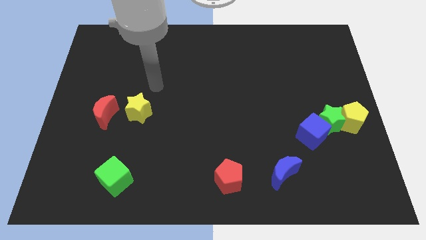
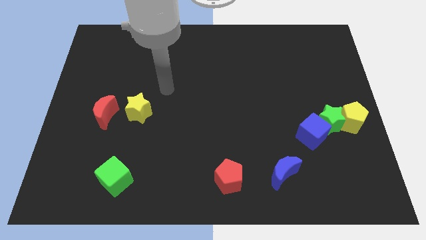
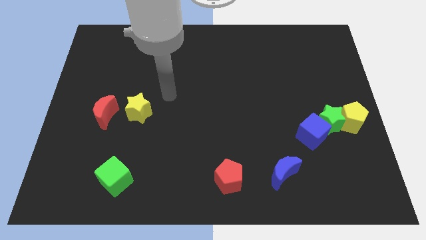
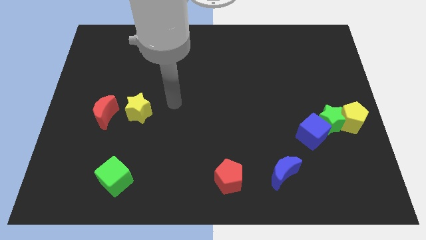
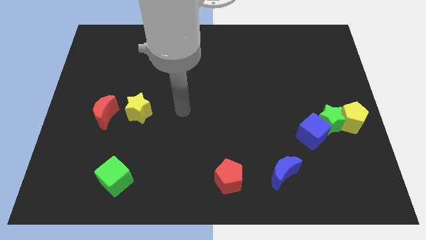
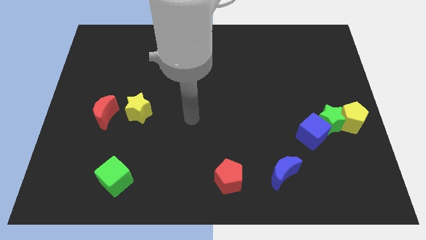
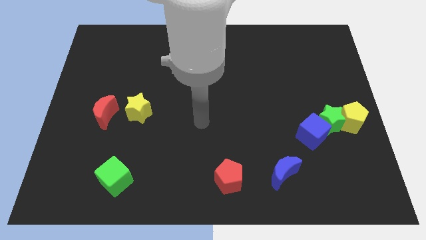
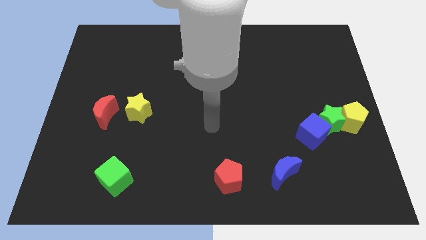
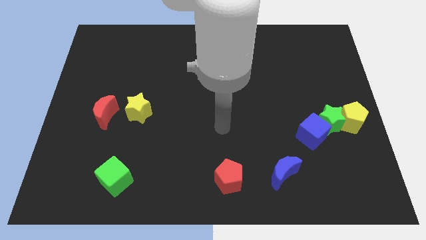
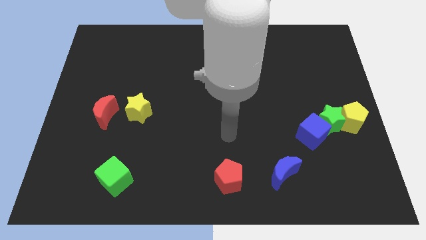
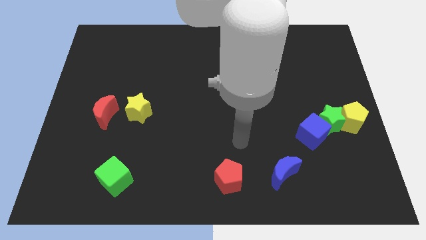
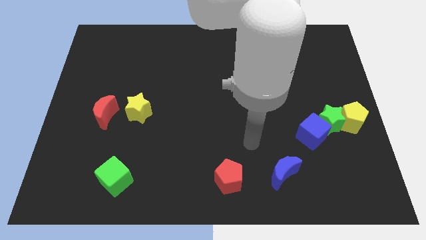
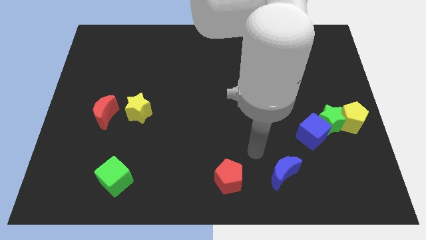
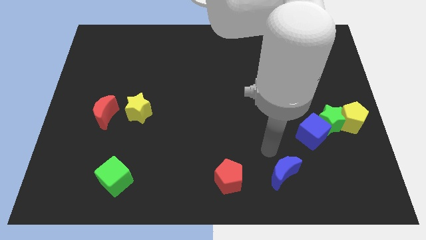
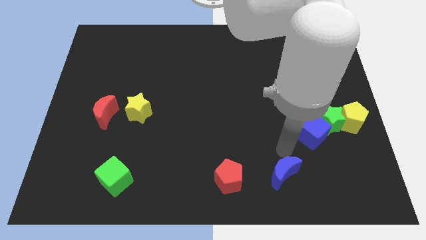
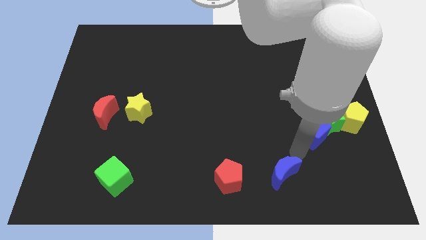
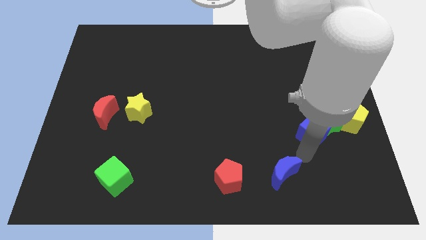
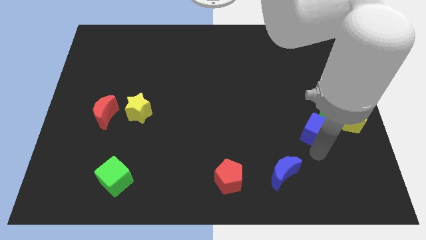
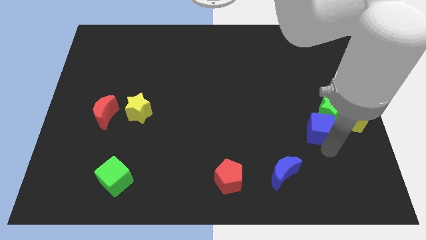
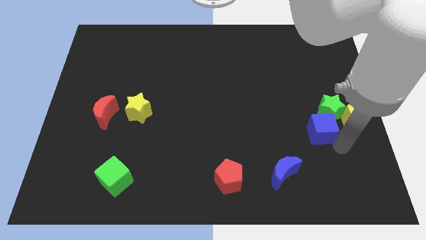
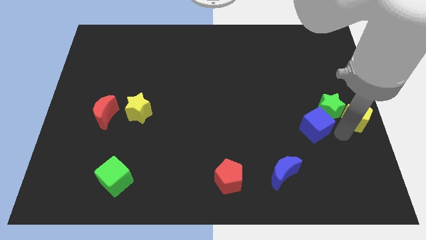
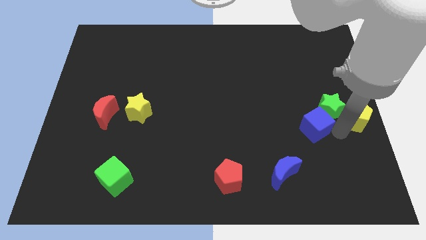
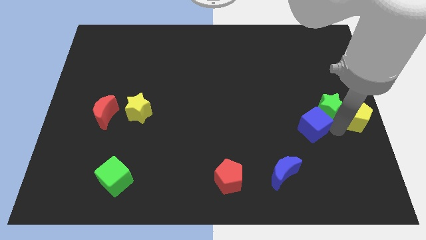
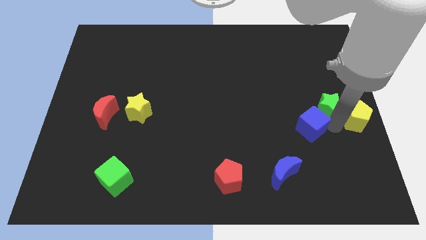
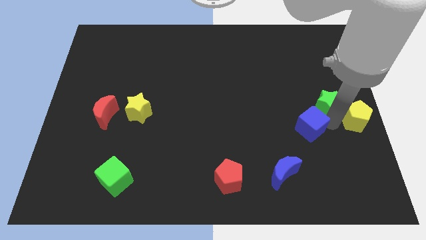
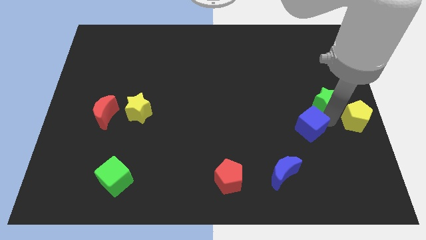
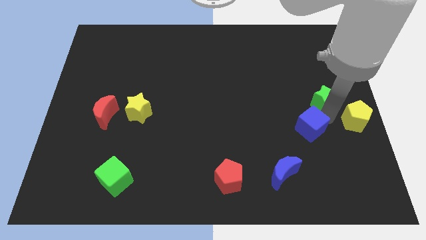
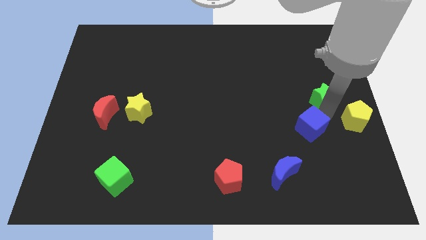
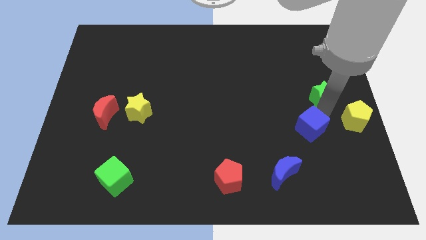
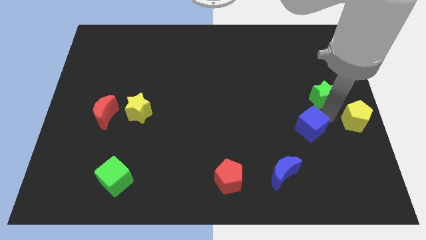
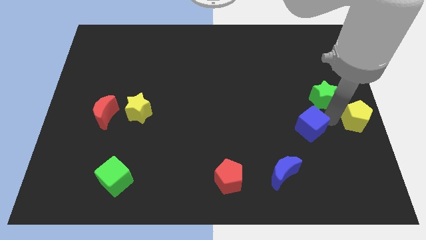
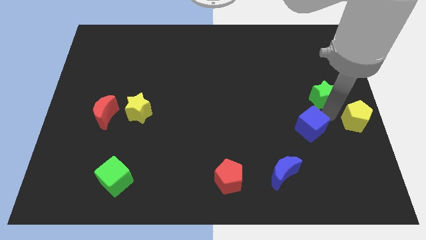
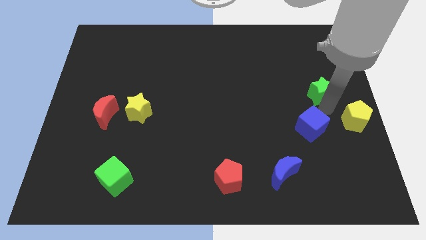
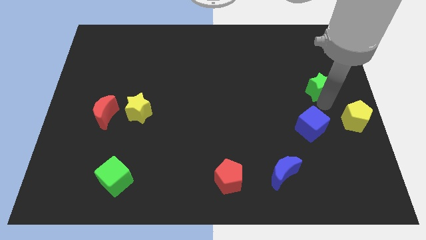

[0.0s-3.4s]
pull the green star apart from the yellow pentagon and blue cube

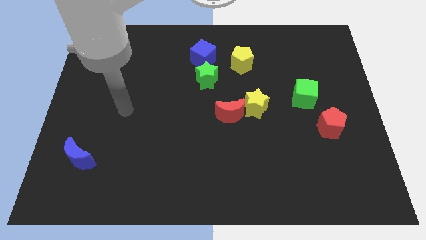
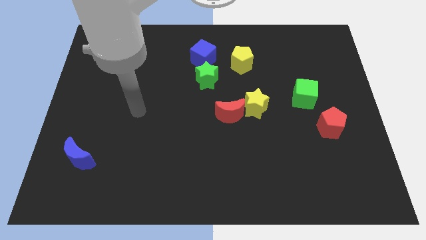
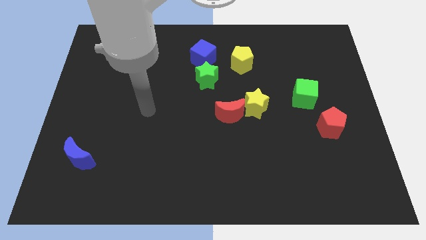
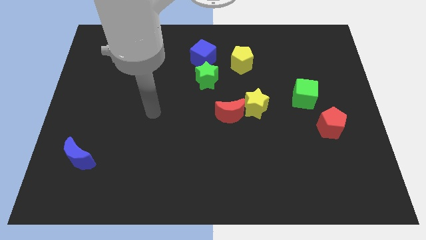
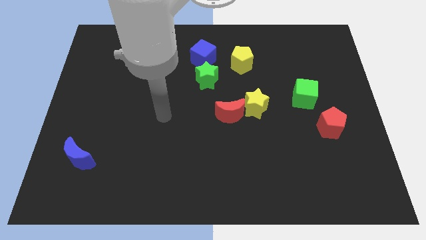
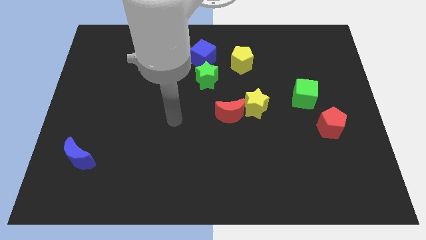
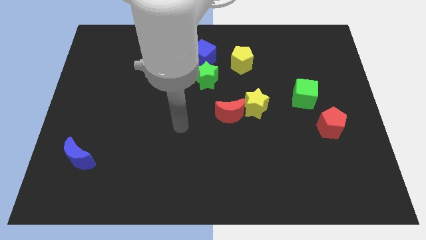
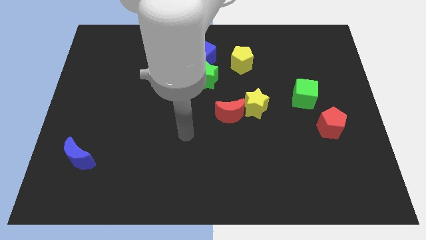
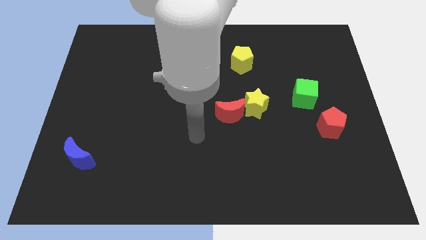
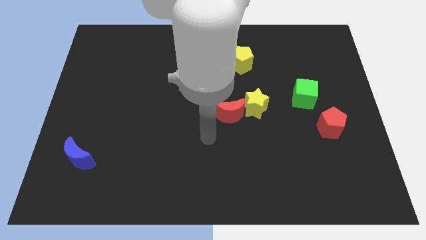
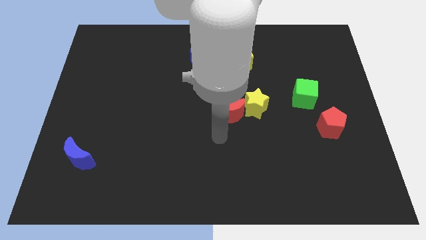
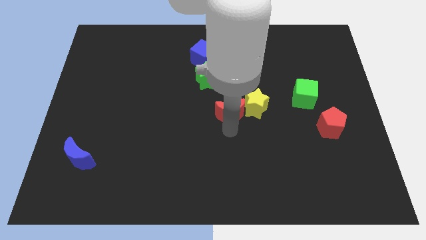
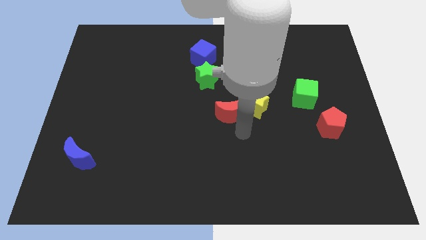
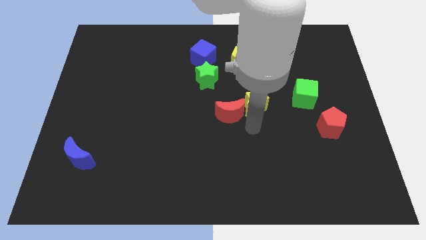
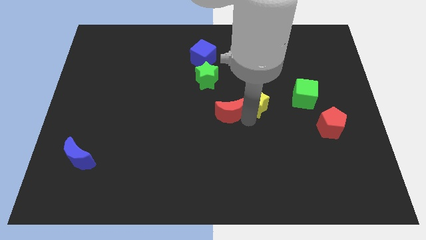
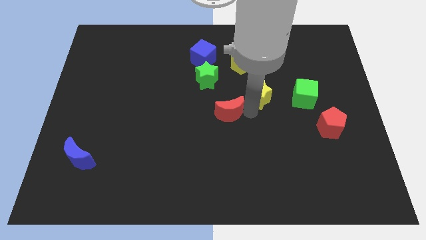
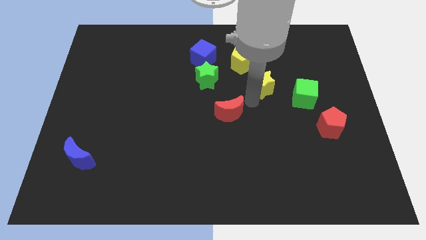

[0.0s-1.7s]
move the red moon away from the yellow star

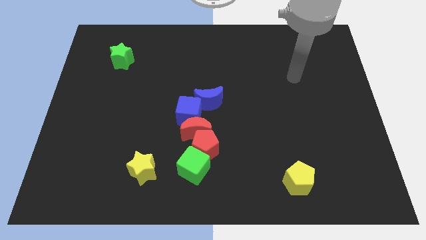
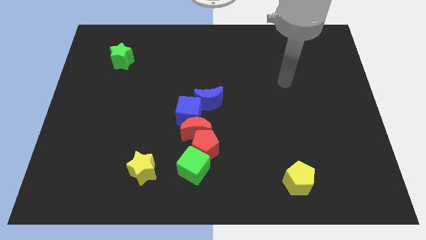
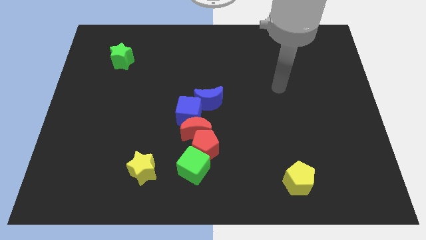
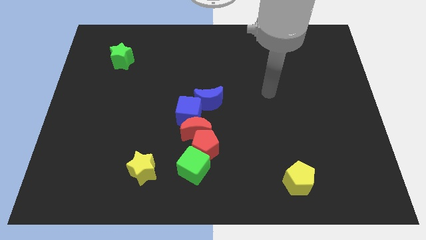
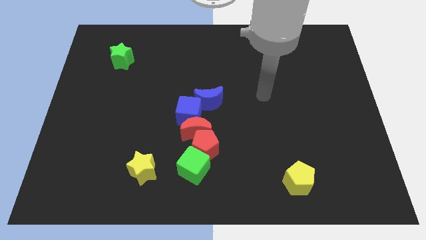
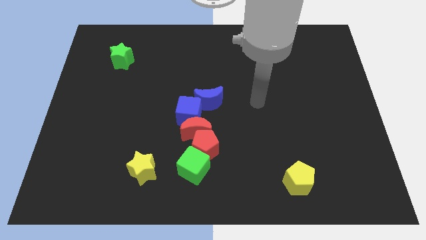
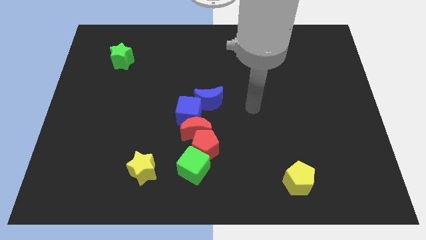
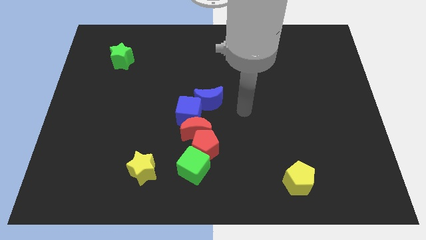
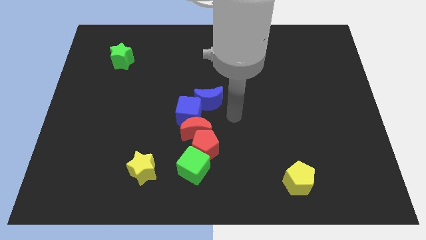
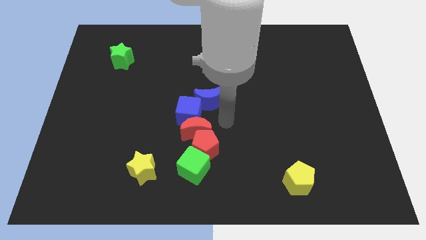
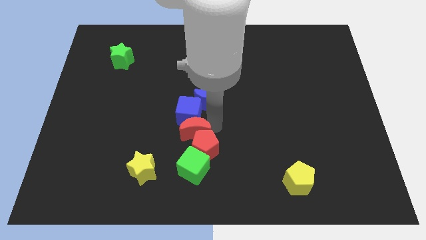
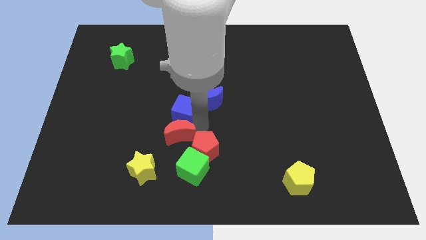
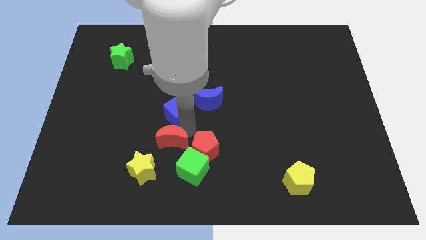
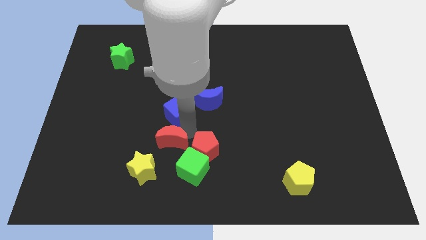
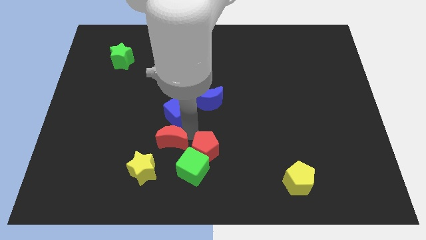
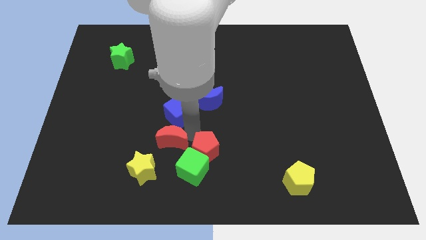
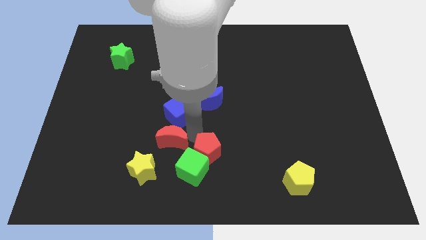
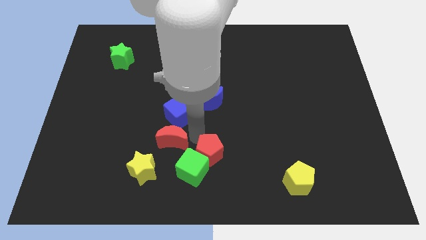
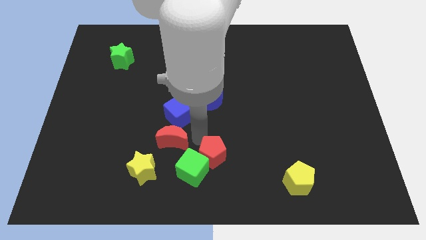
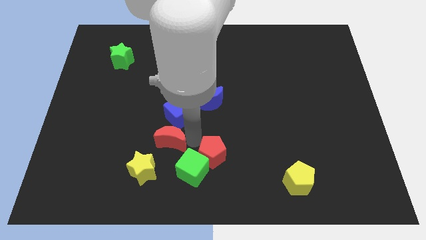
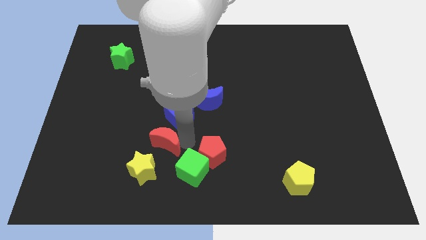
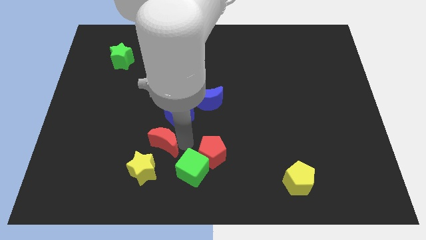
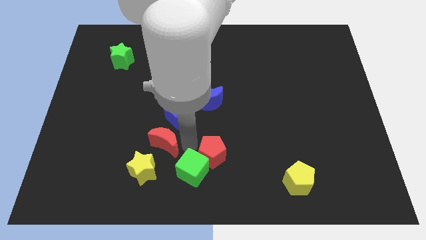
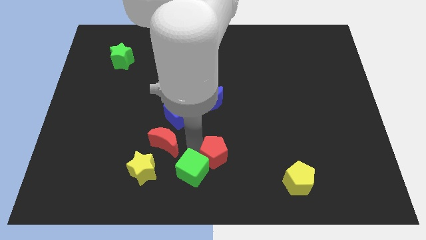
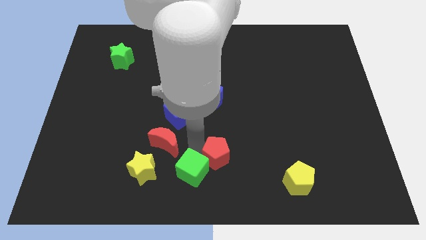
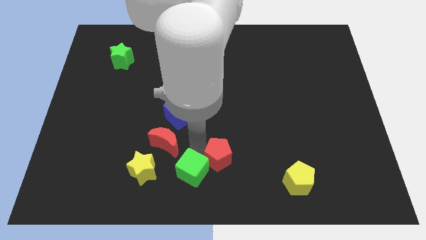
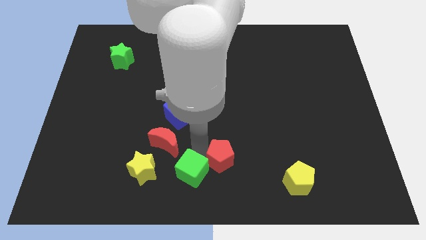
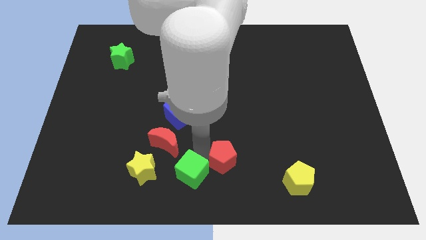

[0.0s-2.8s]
separate the red pentagon from the group

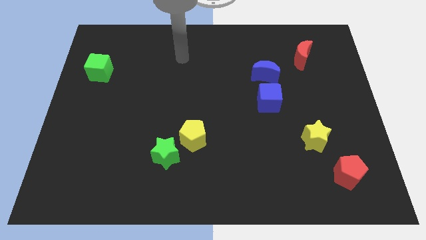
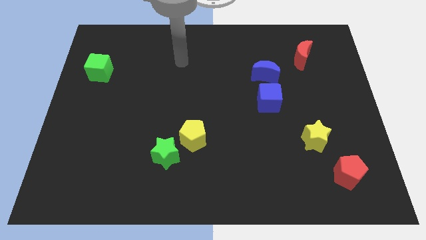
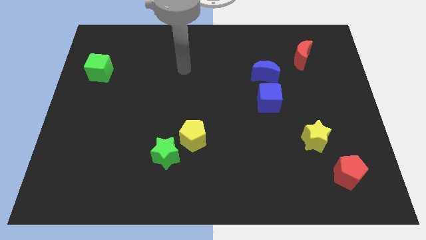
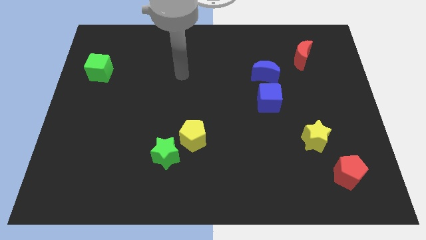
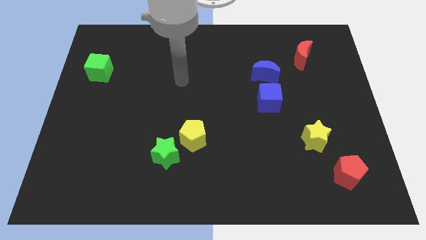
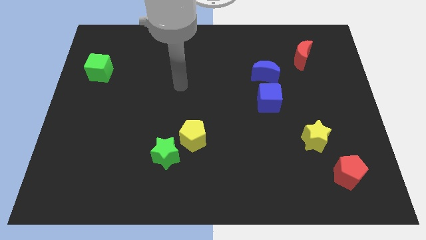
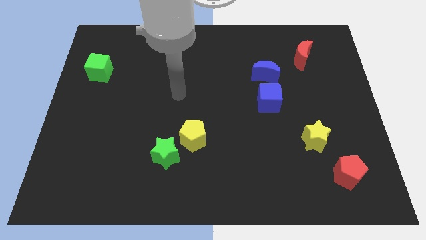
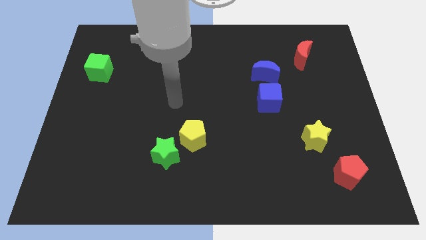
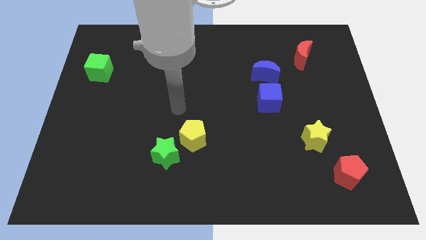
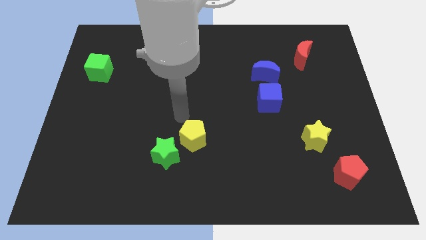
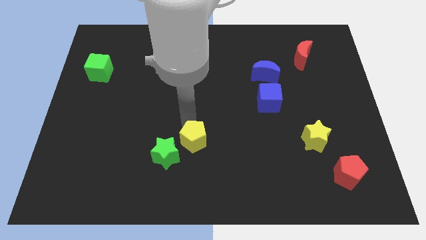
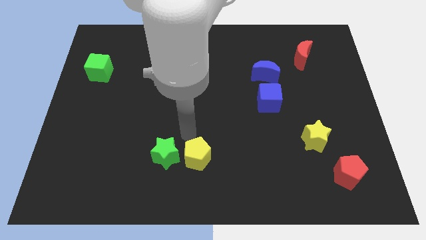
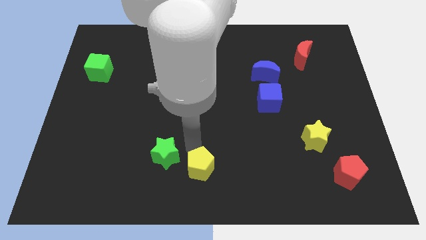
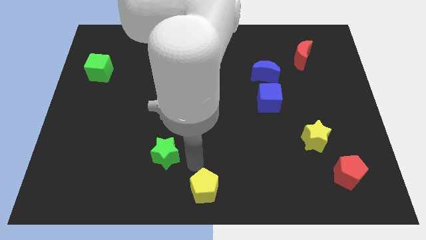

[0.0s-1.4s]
move the green star away from the yellow pentagon
